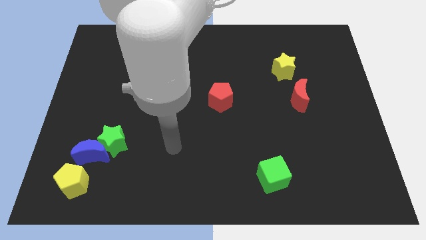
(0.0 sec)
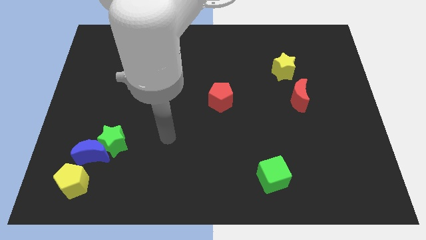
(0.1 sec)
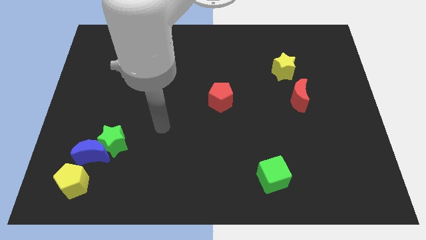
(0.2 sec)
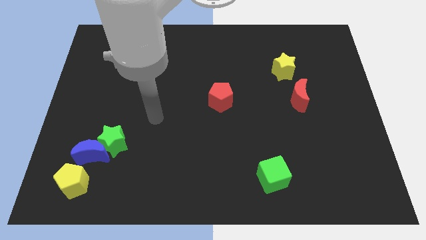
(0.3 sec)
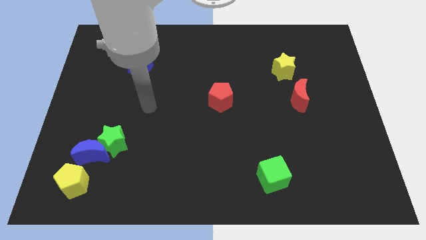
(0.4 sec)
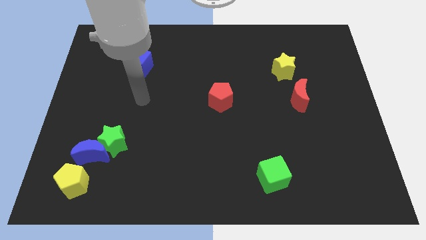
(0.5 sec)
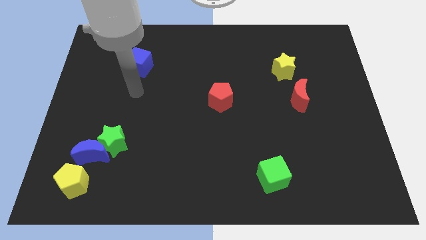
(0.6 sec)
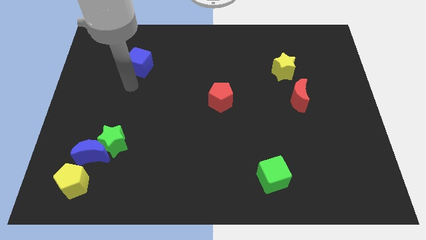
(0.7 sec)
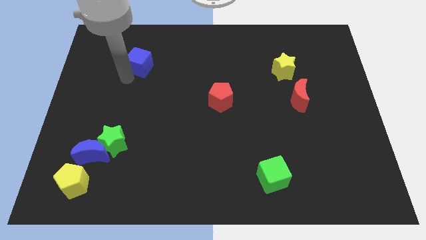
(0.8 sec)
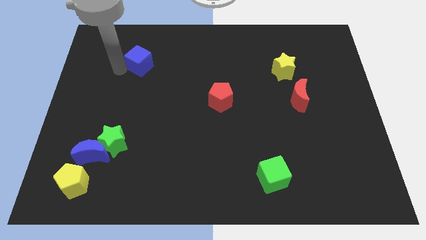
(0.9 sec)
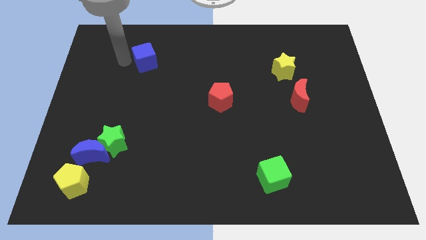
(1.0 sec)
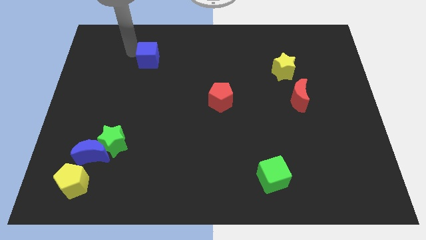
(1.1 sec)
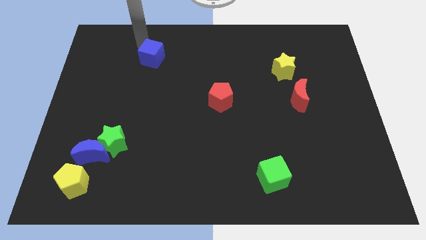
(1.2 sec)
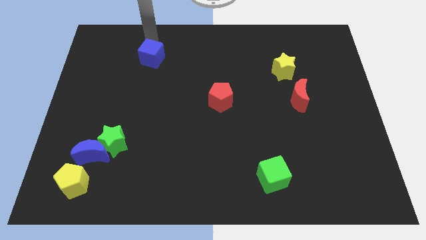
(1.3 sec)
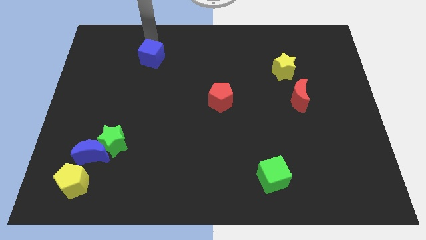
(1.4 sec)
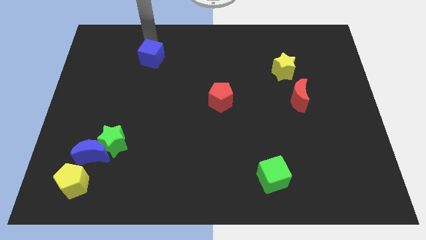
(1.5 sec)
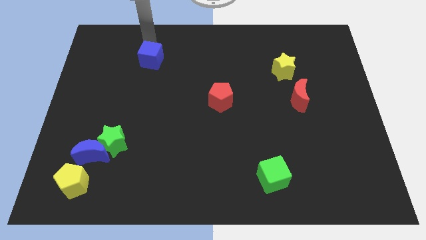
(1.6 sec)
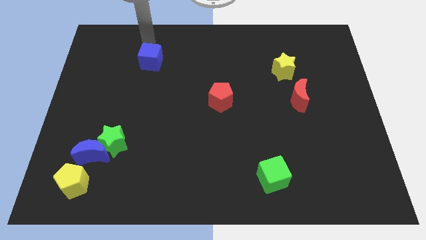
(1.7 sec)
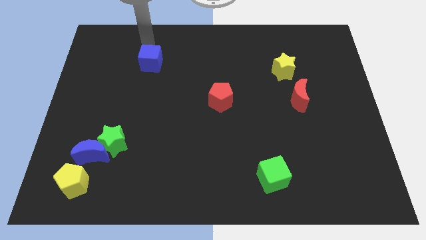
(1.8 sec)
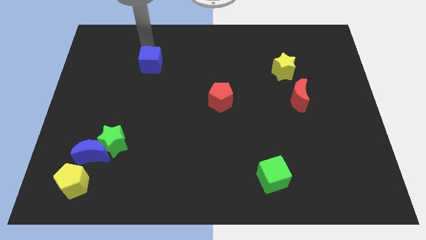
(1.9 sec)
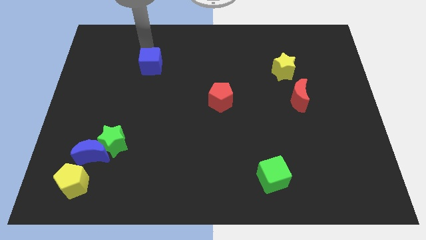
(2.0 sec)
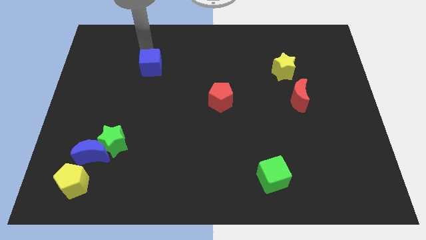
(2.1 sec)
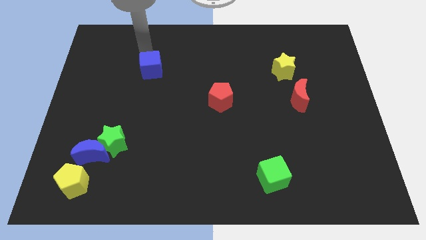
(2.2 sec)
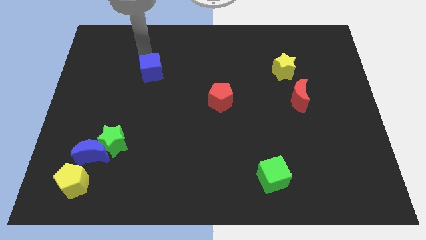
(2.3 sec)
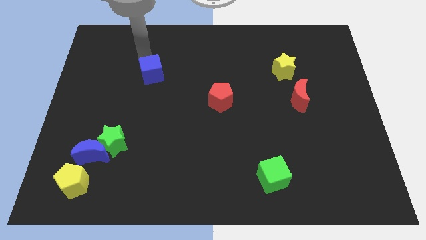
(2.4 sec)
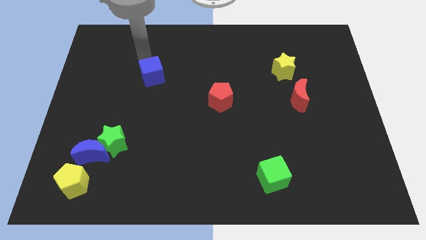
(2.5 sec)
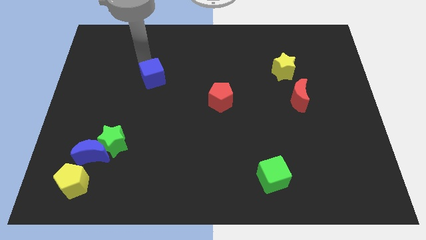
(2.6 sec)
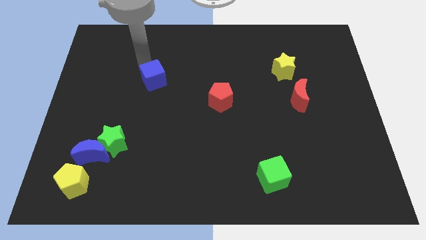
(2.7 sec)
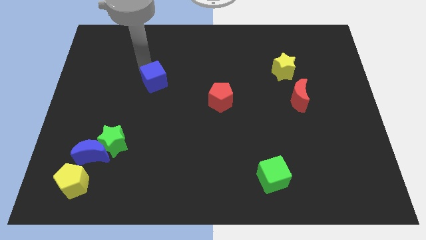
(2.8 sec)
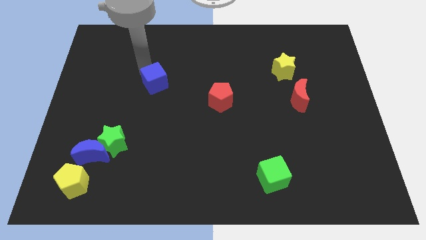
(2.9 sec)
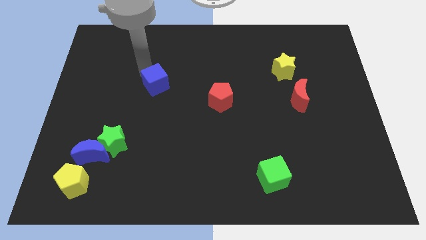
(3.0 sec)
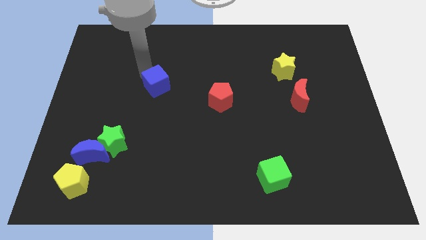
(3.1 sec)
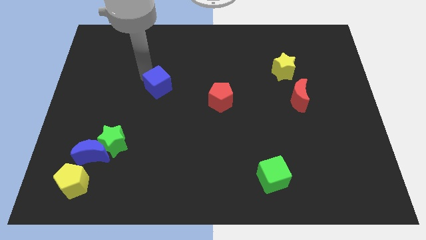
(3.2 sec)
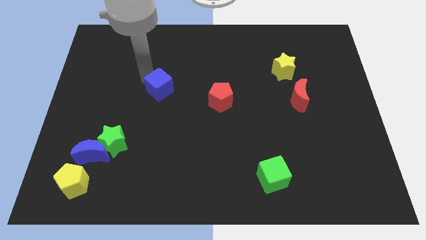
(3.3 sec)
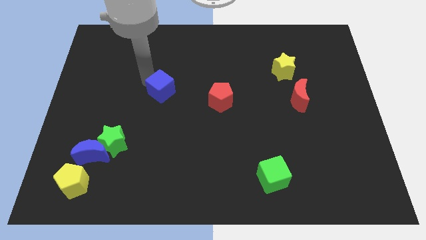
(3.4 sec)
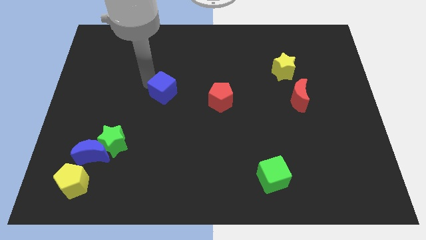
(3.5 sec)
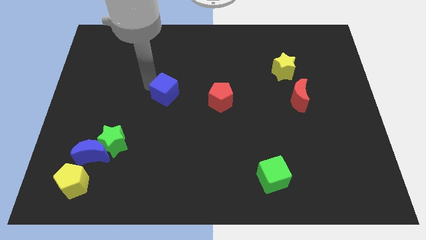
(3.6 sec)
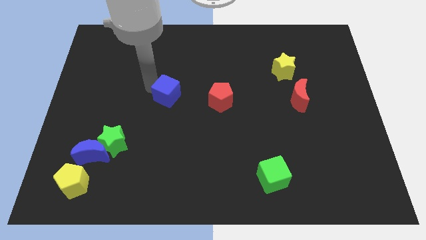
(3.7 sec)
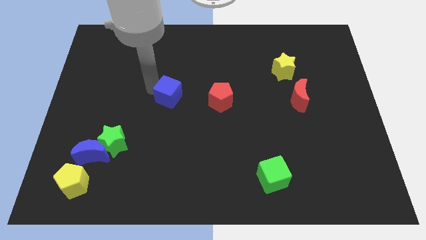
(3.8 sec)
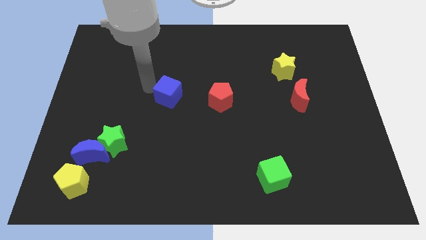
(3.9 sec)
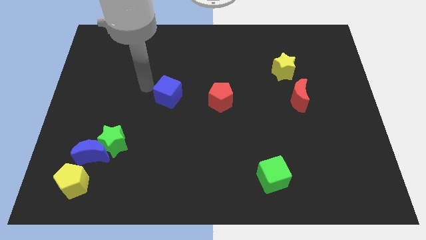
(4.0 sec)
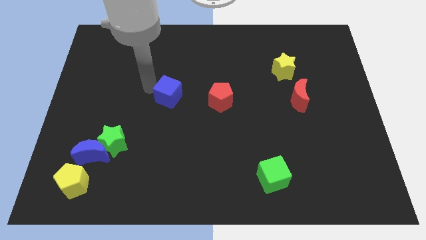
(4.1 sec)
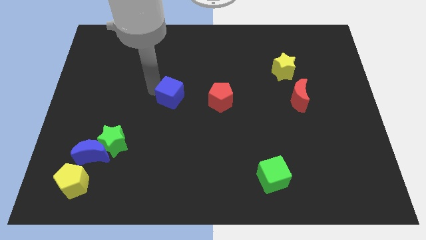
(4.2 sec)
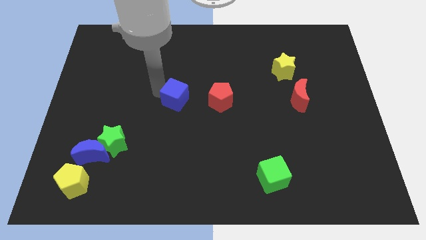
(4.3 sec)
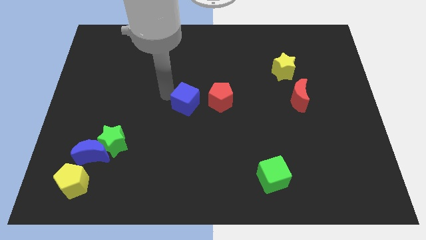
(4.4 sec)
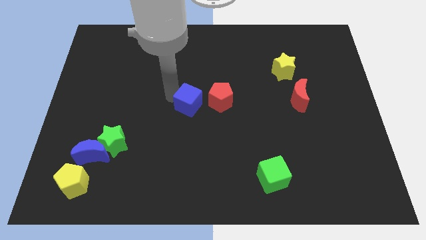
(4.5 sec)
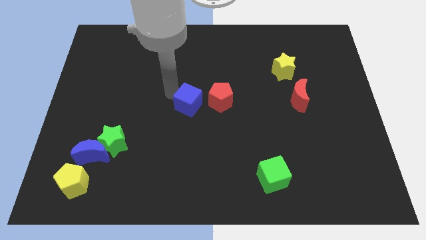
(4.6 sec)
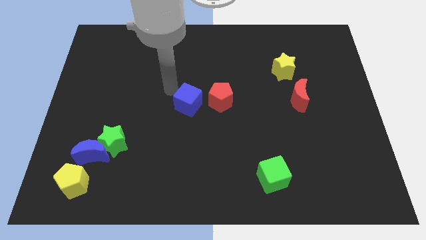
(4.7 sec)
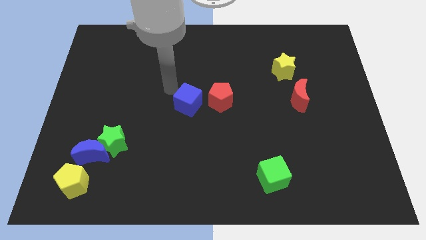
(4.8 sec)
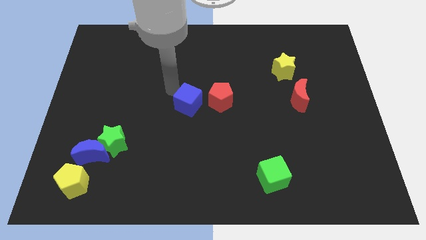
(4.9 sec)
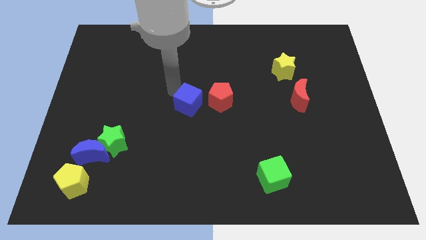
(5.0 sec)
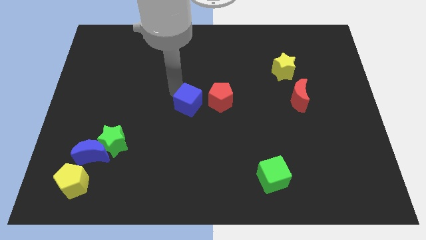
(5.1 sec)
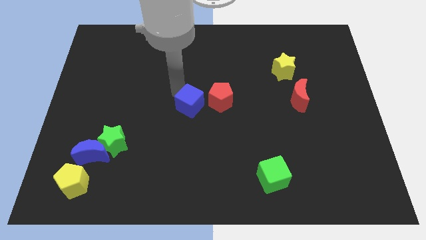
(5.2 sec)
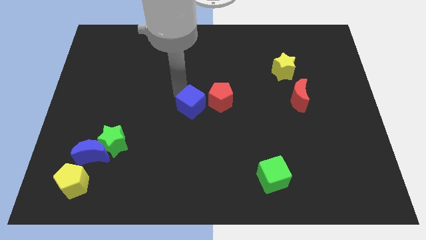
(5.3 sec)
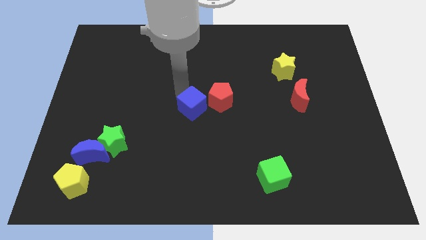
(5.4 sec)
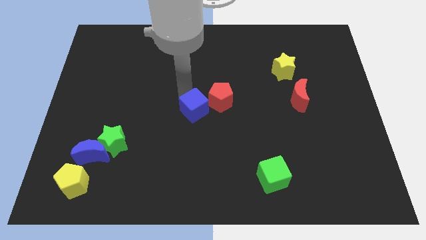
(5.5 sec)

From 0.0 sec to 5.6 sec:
move the blue cube downwards and to the right diagonally

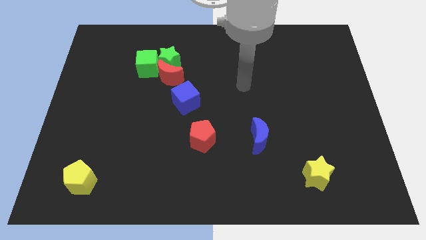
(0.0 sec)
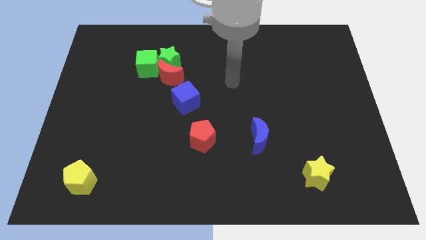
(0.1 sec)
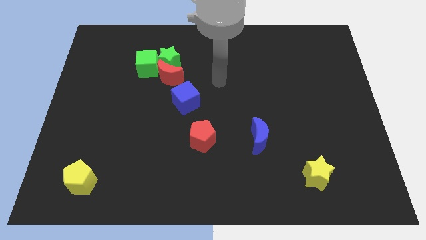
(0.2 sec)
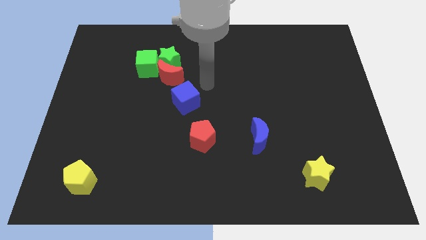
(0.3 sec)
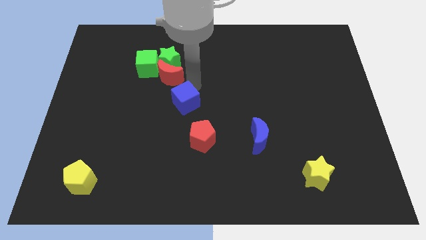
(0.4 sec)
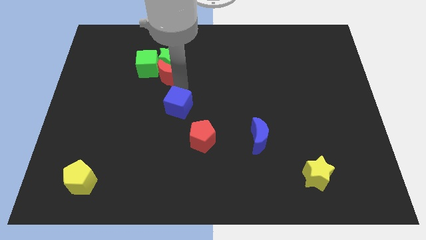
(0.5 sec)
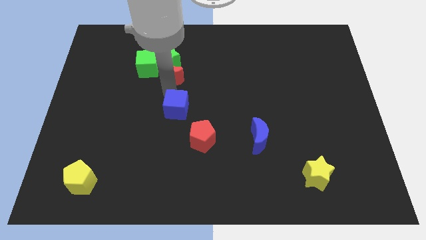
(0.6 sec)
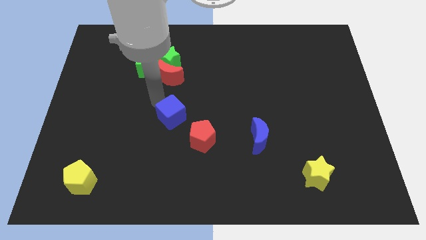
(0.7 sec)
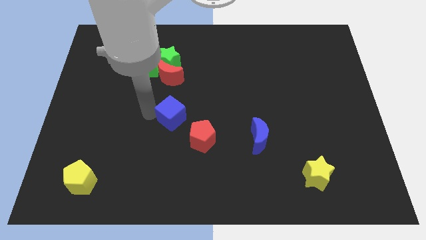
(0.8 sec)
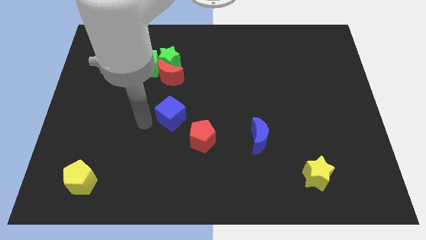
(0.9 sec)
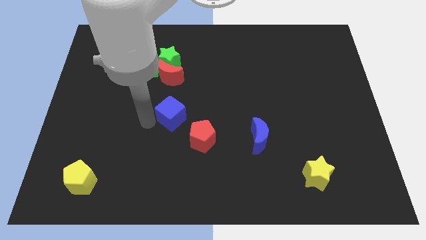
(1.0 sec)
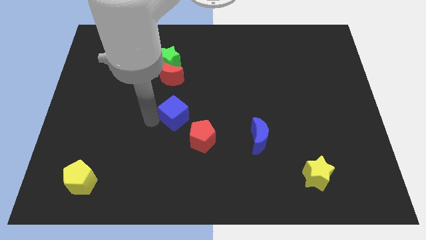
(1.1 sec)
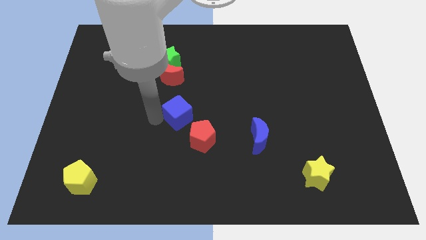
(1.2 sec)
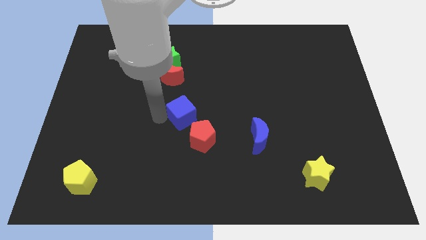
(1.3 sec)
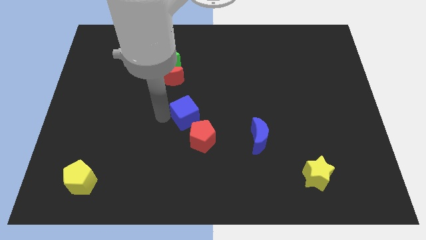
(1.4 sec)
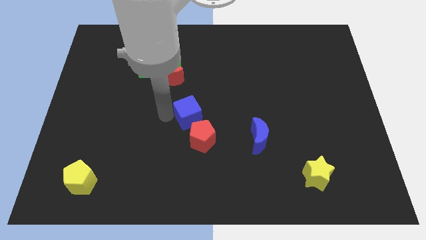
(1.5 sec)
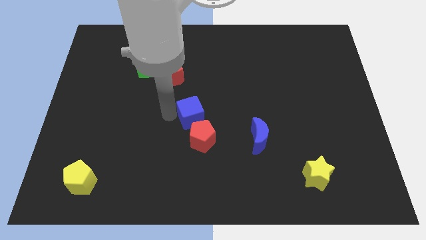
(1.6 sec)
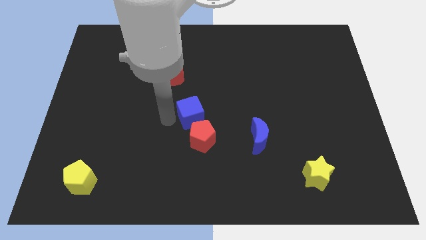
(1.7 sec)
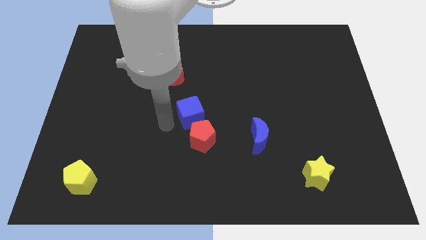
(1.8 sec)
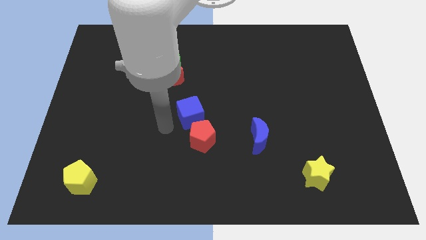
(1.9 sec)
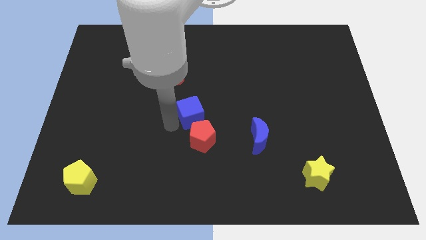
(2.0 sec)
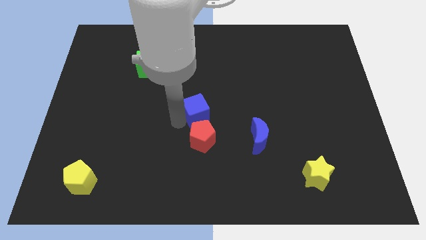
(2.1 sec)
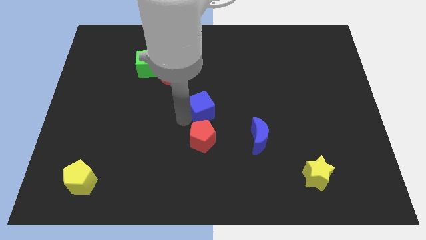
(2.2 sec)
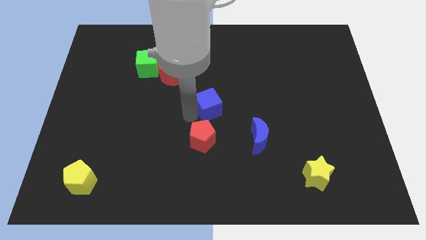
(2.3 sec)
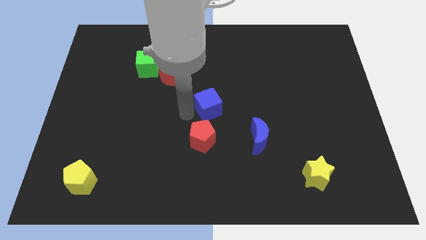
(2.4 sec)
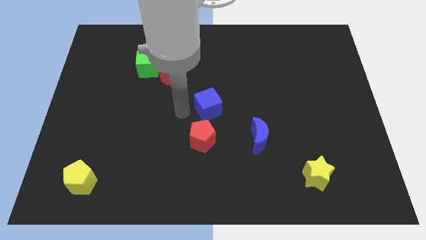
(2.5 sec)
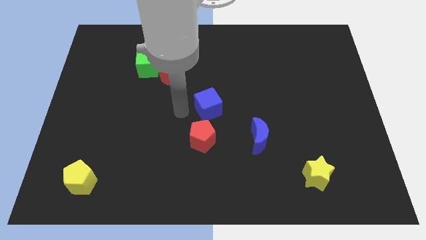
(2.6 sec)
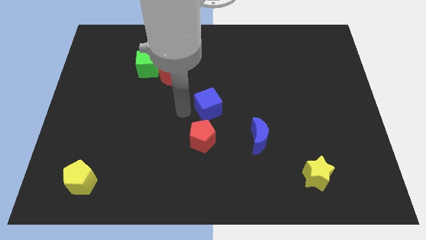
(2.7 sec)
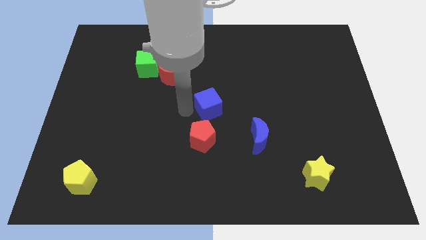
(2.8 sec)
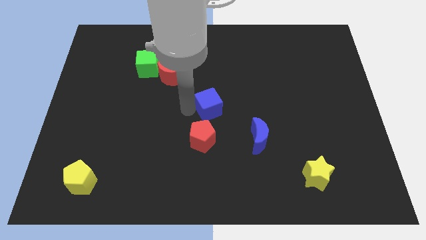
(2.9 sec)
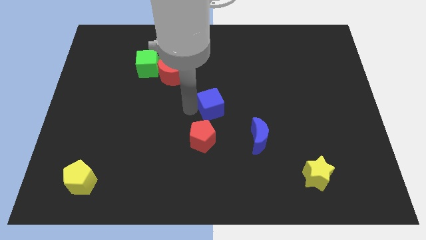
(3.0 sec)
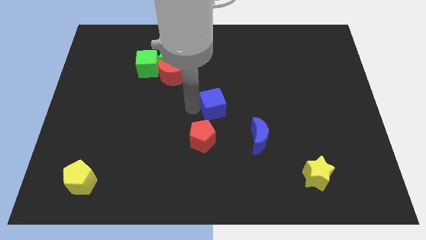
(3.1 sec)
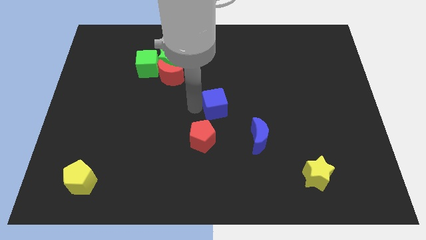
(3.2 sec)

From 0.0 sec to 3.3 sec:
slightly slide the blue cube to the right
